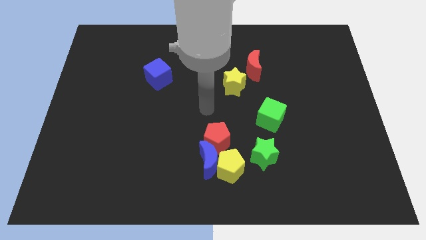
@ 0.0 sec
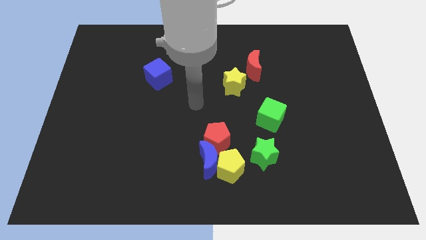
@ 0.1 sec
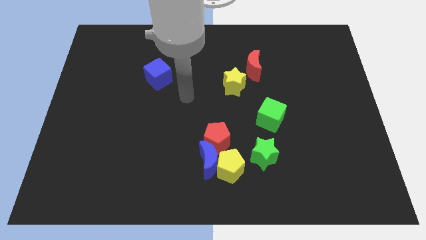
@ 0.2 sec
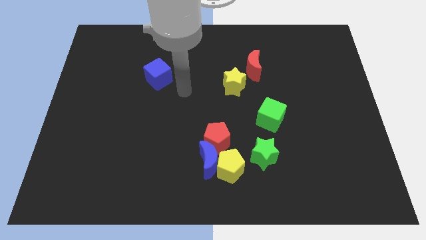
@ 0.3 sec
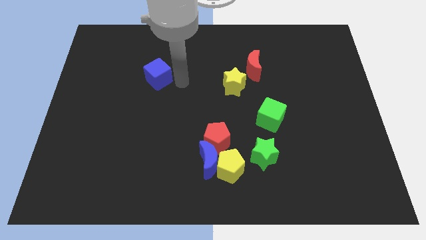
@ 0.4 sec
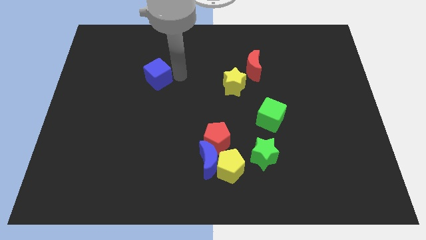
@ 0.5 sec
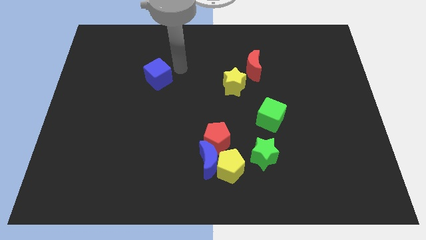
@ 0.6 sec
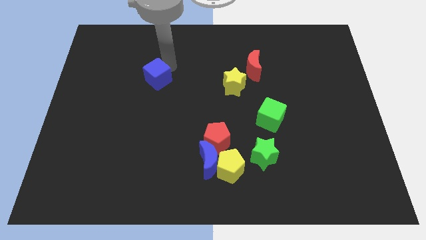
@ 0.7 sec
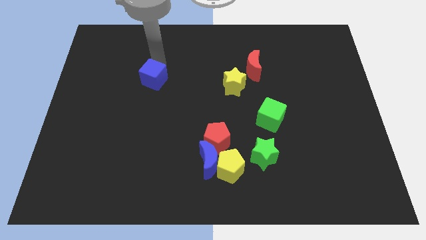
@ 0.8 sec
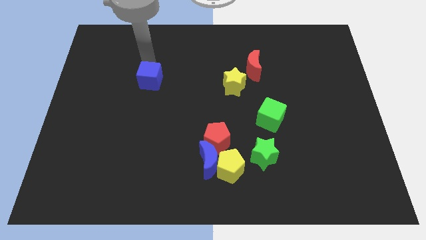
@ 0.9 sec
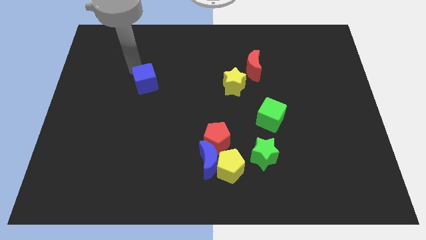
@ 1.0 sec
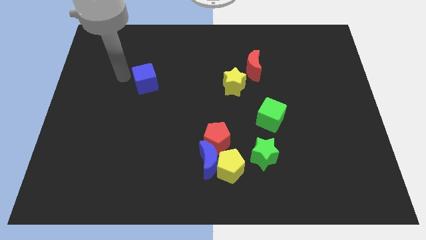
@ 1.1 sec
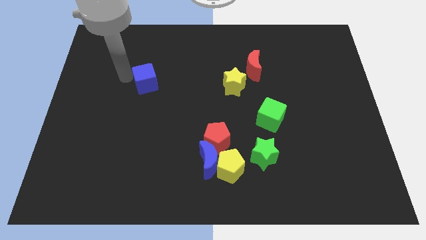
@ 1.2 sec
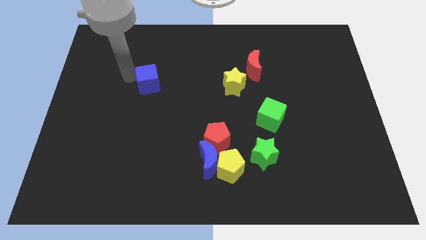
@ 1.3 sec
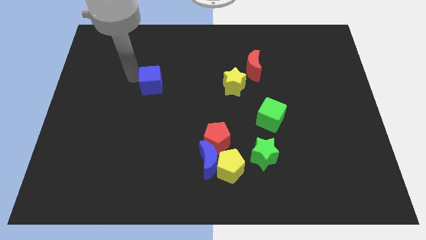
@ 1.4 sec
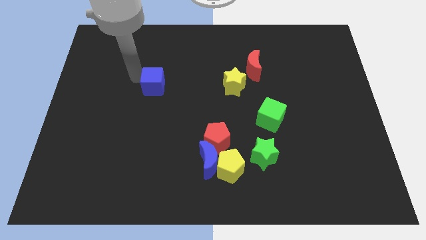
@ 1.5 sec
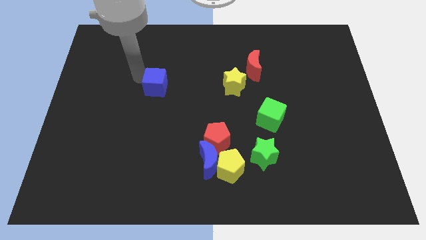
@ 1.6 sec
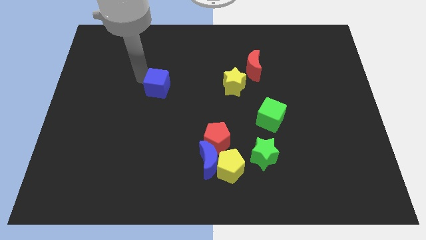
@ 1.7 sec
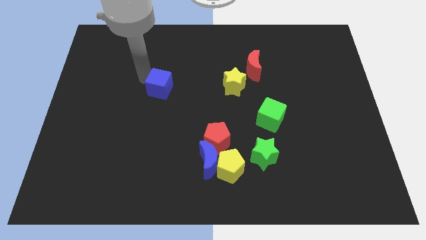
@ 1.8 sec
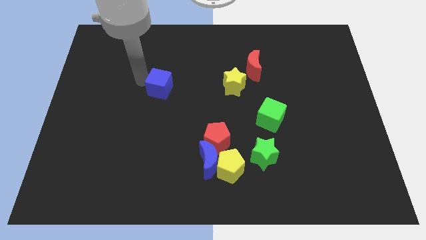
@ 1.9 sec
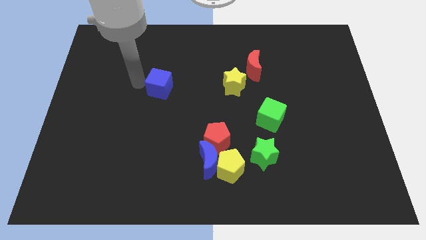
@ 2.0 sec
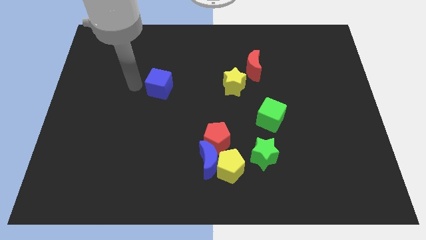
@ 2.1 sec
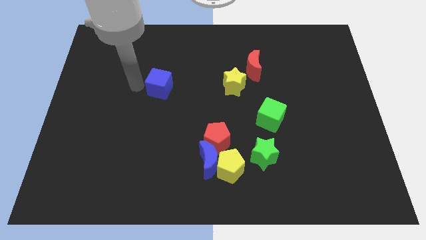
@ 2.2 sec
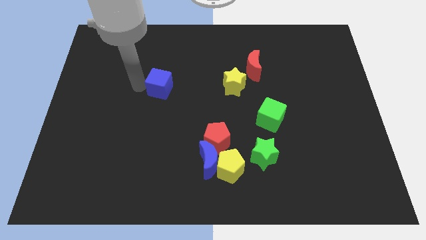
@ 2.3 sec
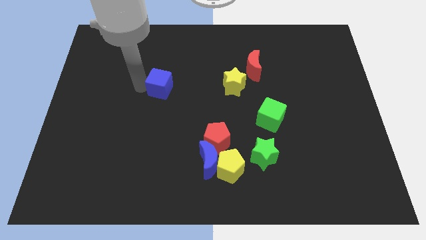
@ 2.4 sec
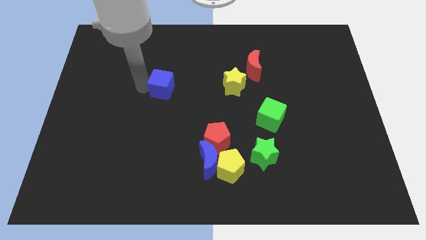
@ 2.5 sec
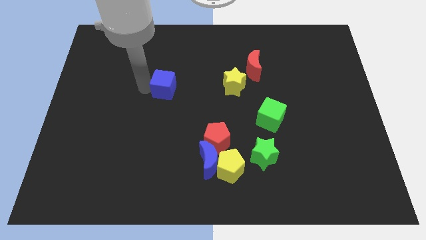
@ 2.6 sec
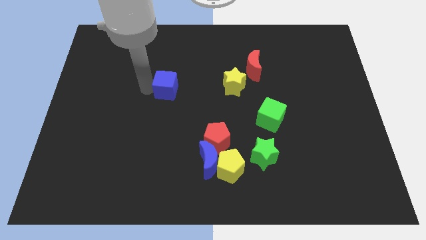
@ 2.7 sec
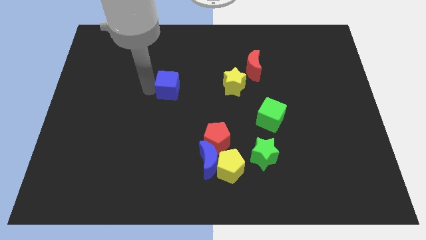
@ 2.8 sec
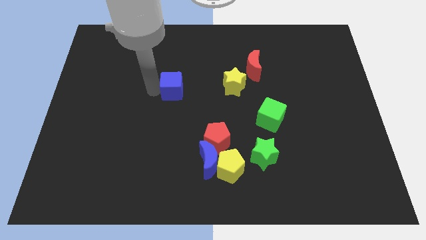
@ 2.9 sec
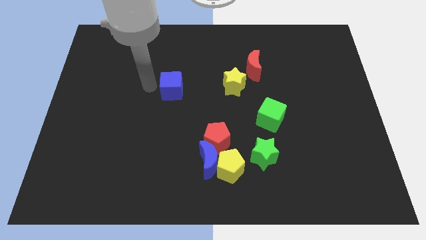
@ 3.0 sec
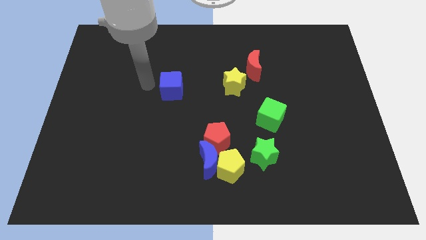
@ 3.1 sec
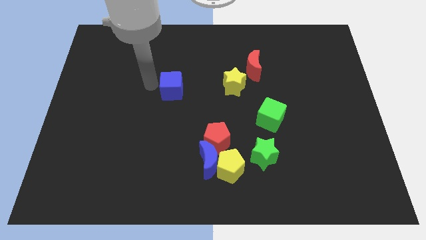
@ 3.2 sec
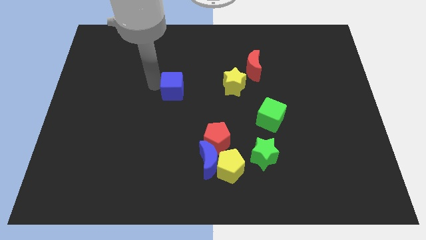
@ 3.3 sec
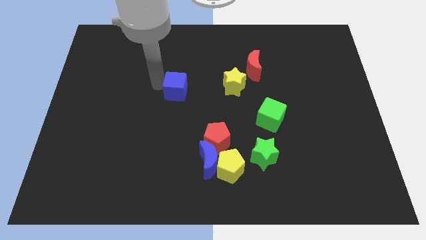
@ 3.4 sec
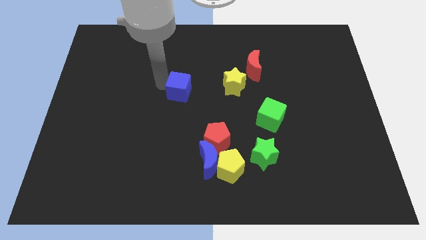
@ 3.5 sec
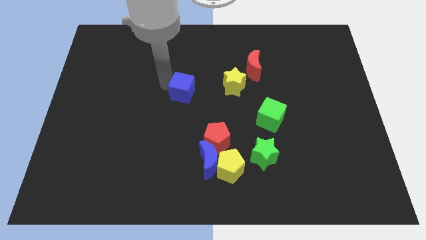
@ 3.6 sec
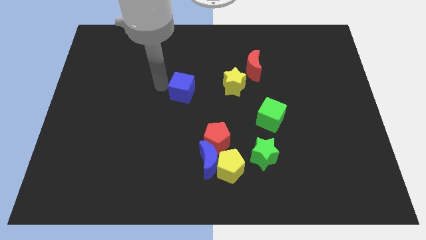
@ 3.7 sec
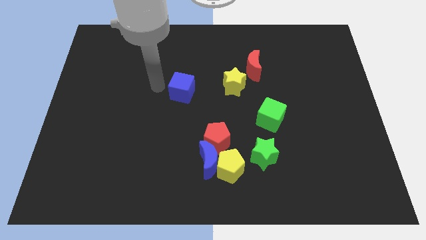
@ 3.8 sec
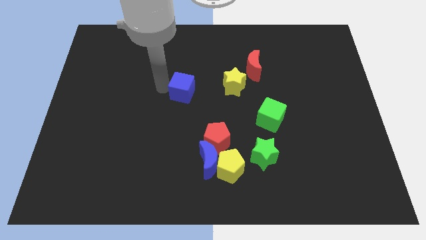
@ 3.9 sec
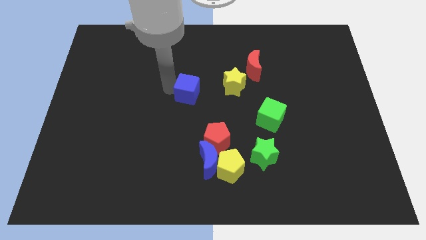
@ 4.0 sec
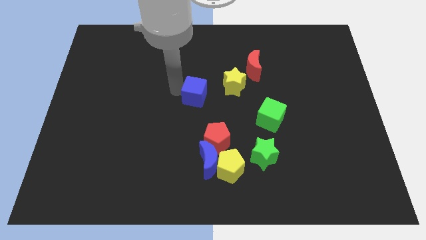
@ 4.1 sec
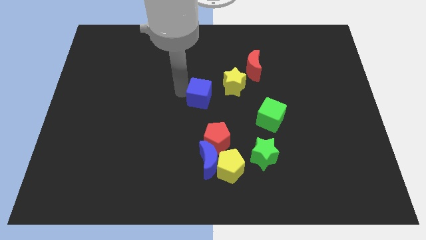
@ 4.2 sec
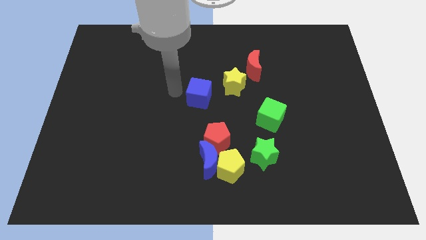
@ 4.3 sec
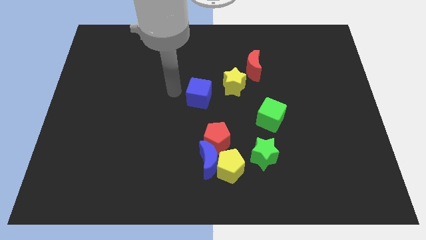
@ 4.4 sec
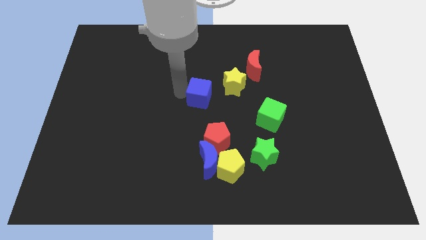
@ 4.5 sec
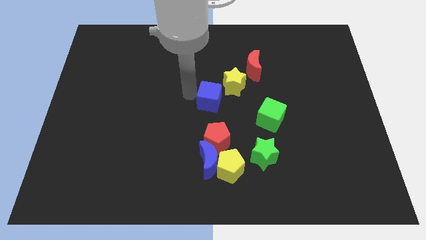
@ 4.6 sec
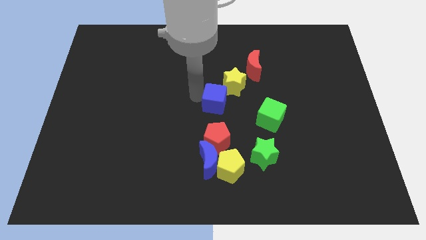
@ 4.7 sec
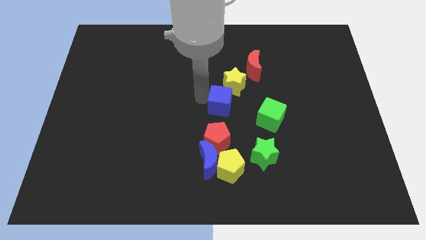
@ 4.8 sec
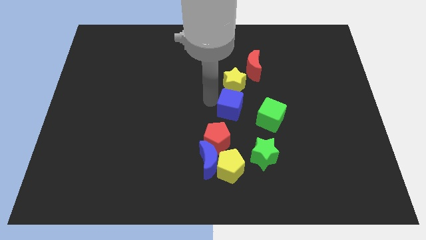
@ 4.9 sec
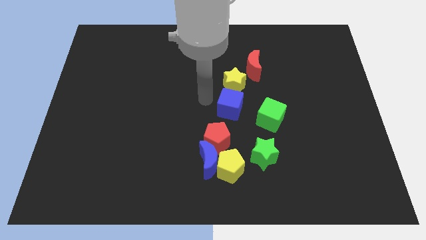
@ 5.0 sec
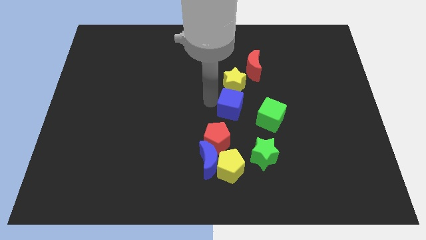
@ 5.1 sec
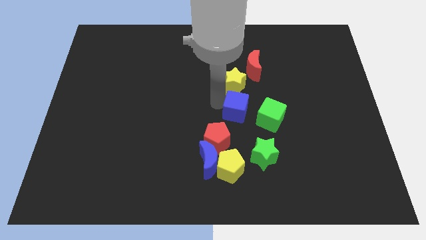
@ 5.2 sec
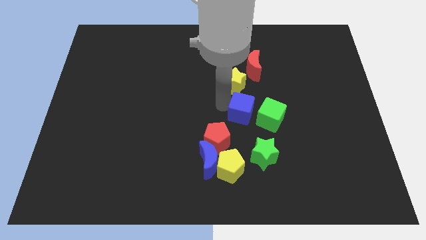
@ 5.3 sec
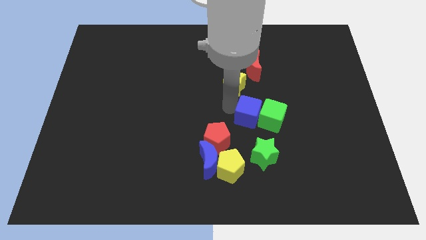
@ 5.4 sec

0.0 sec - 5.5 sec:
push the blue cube to the green cube
